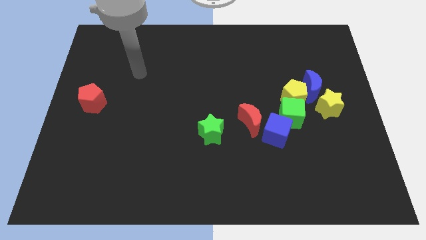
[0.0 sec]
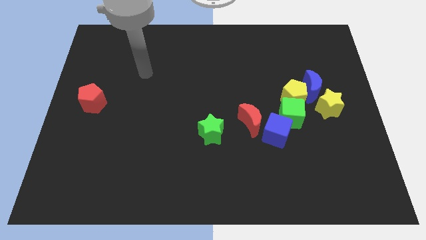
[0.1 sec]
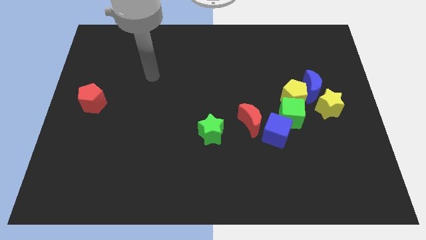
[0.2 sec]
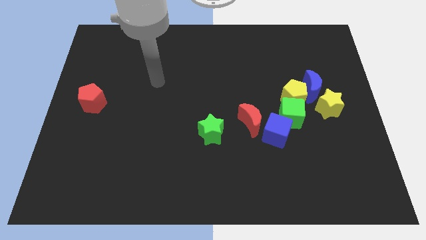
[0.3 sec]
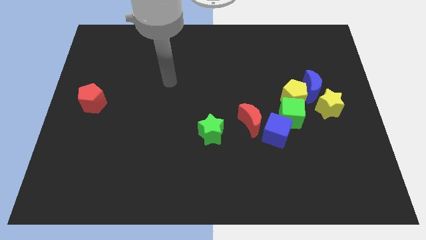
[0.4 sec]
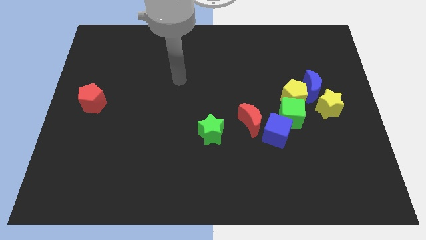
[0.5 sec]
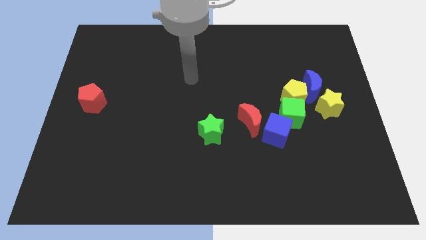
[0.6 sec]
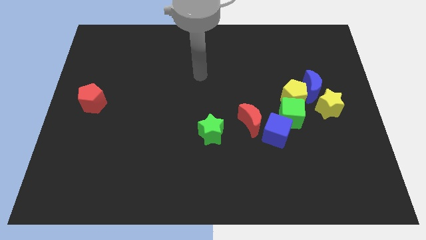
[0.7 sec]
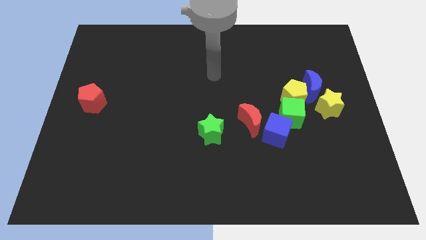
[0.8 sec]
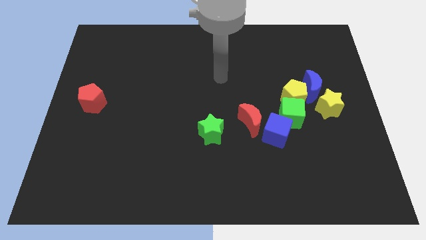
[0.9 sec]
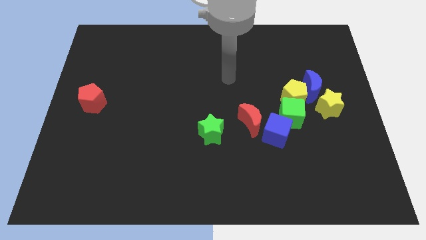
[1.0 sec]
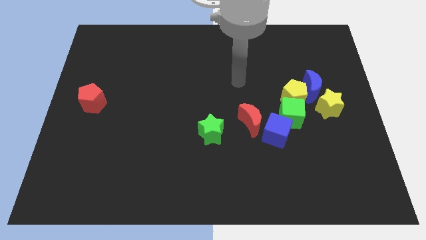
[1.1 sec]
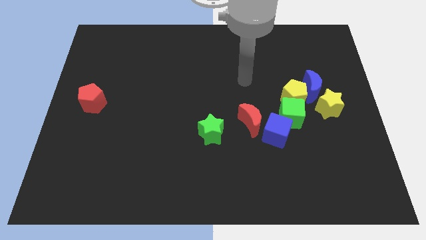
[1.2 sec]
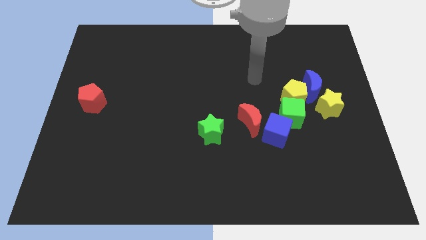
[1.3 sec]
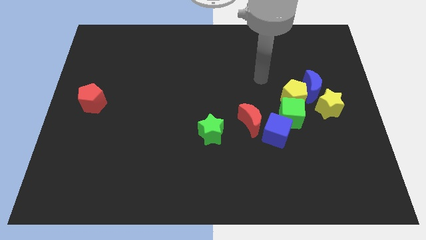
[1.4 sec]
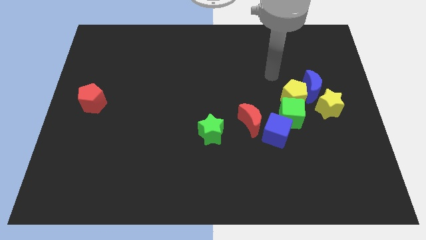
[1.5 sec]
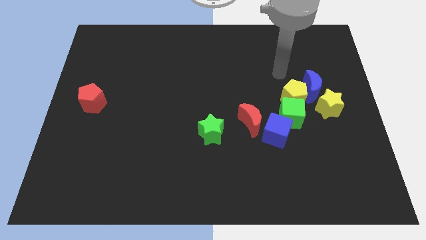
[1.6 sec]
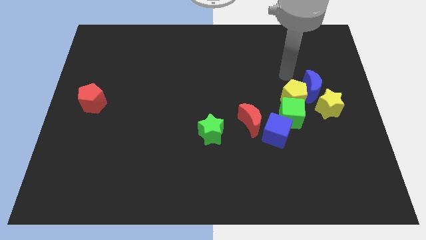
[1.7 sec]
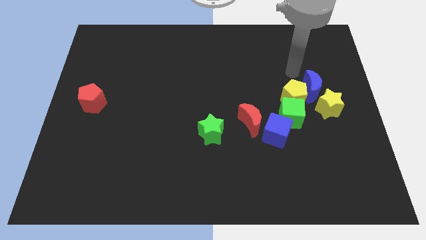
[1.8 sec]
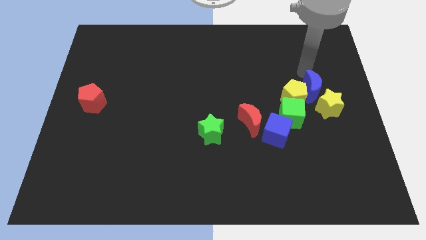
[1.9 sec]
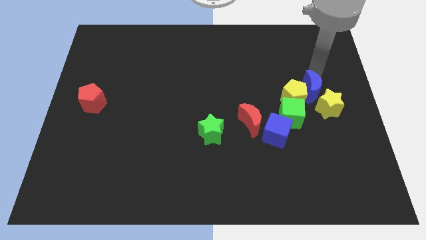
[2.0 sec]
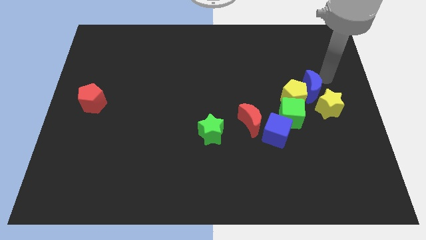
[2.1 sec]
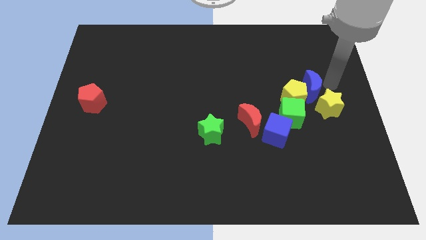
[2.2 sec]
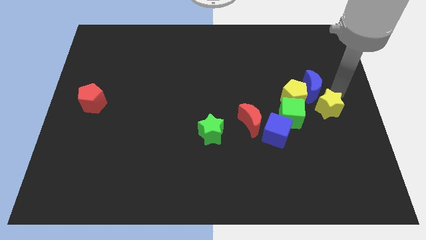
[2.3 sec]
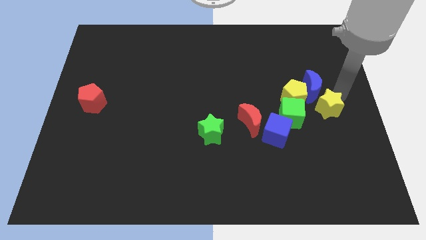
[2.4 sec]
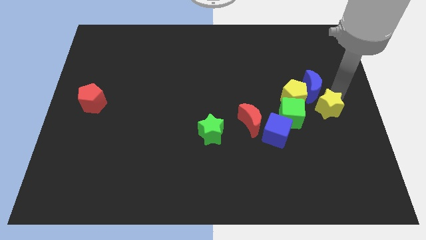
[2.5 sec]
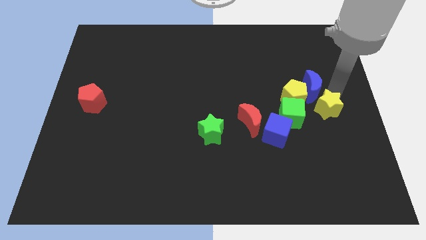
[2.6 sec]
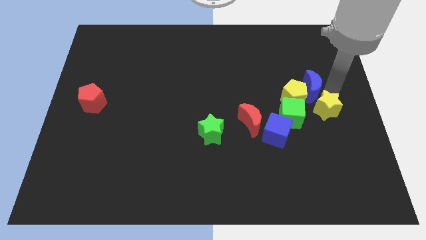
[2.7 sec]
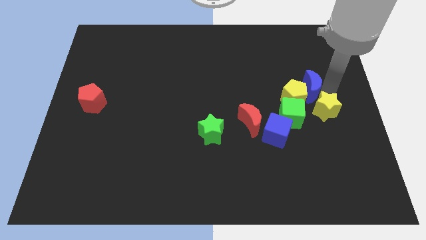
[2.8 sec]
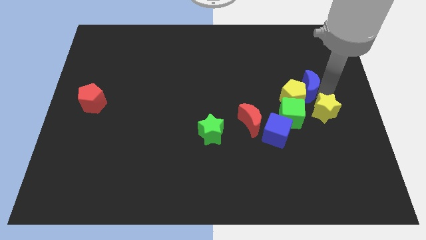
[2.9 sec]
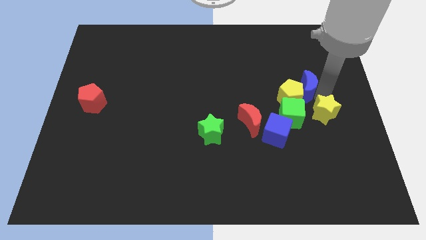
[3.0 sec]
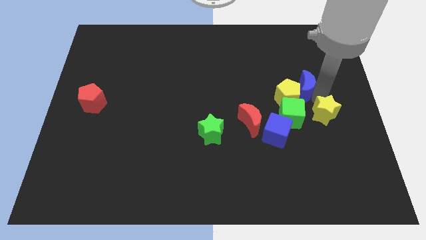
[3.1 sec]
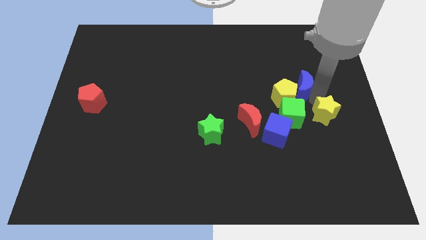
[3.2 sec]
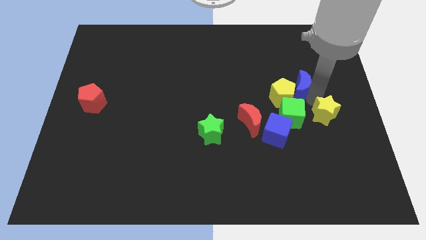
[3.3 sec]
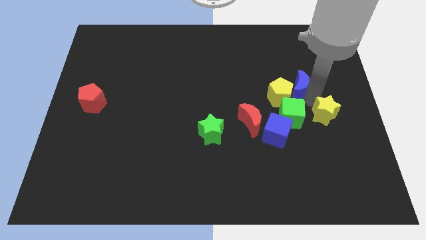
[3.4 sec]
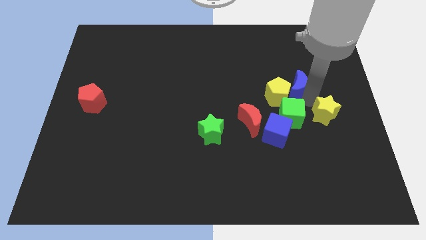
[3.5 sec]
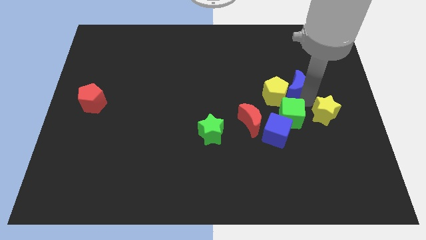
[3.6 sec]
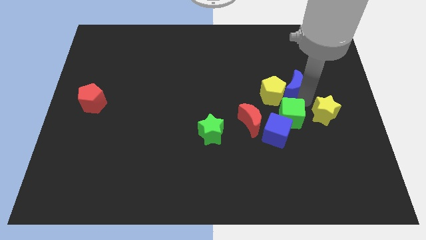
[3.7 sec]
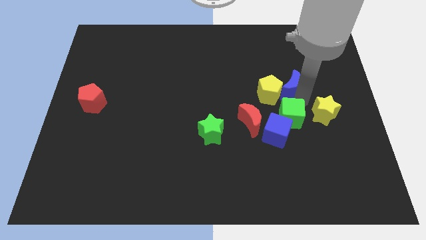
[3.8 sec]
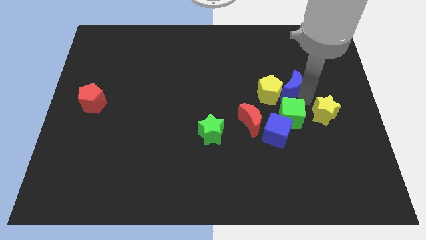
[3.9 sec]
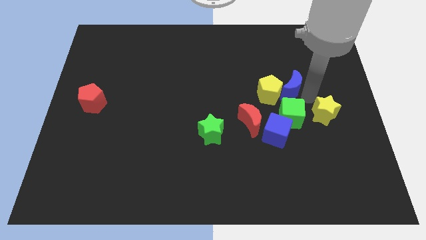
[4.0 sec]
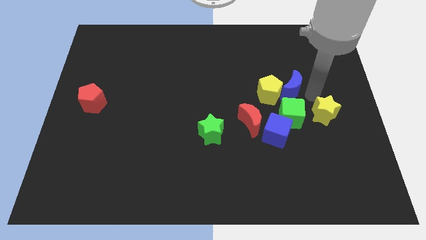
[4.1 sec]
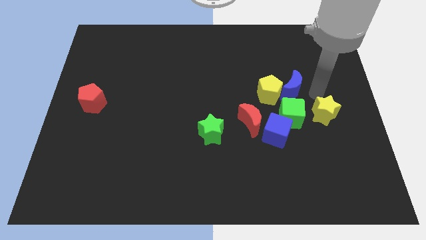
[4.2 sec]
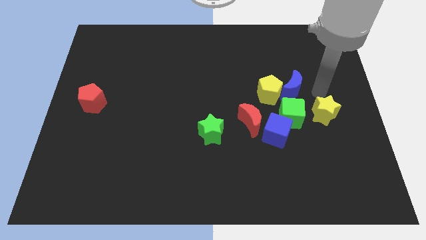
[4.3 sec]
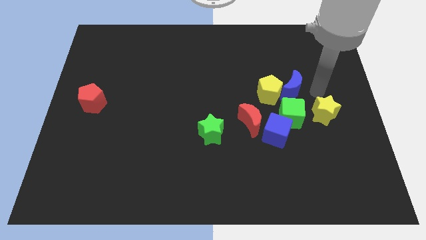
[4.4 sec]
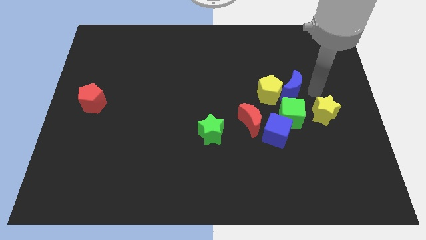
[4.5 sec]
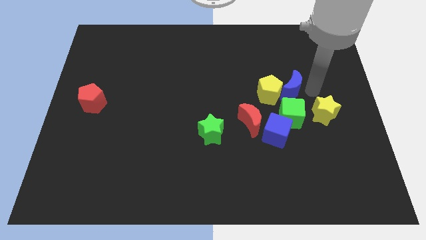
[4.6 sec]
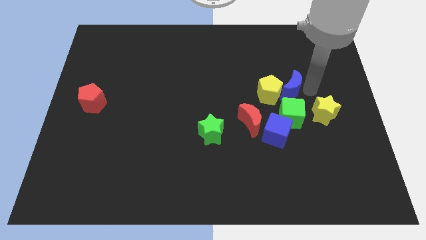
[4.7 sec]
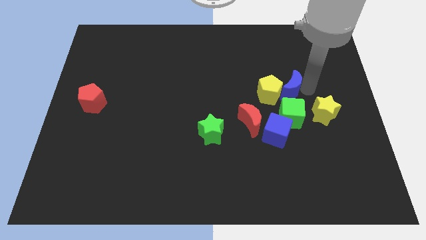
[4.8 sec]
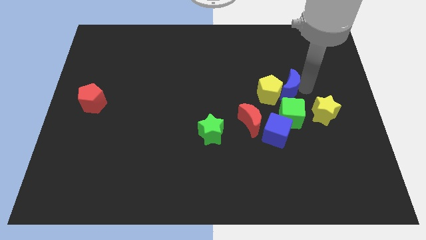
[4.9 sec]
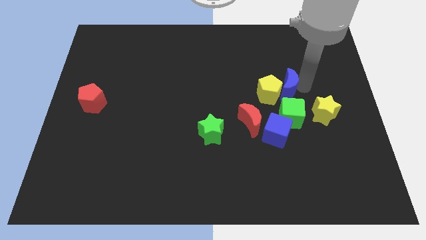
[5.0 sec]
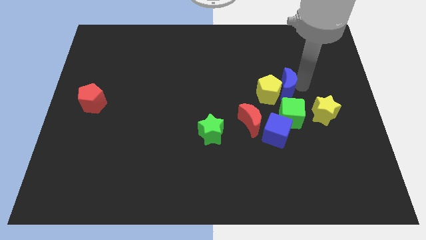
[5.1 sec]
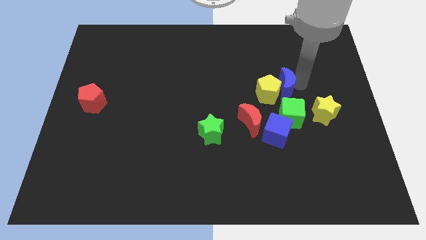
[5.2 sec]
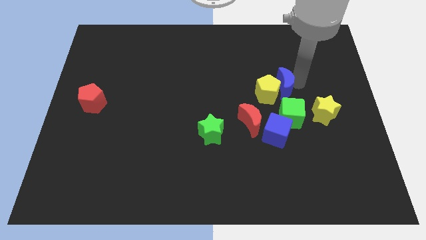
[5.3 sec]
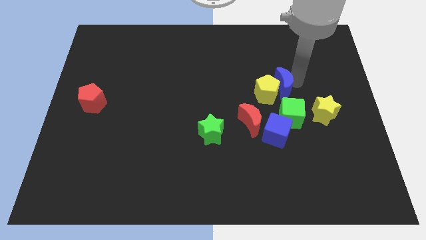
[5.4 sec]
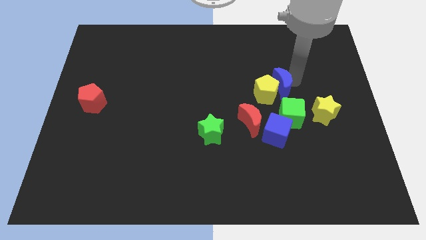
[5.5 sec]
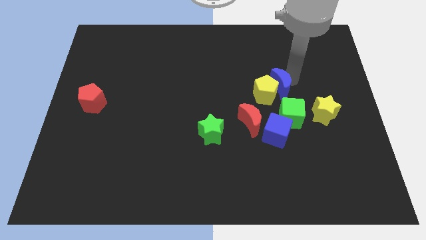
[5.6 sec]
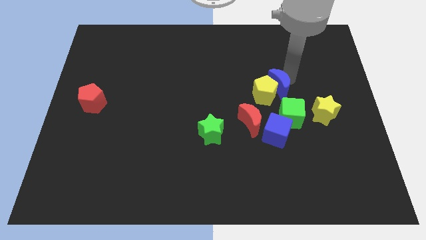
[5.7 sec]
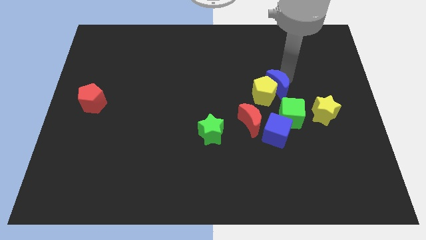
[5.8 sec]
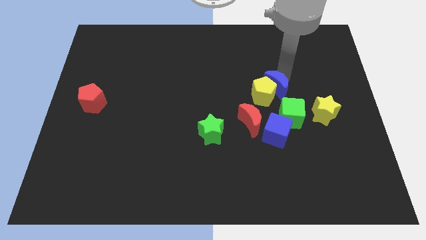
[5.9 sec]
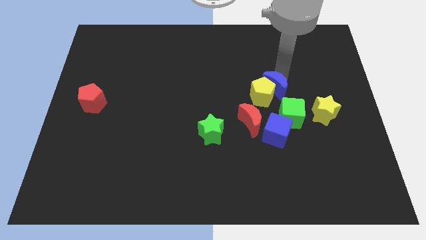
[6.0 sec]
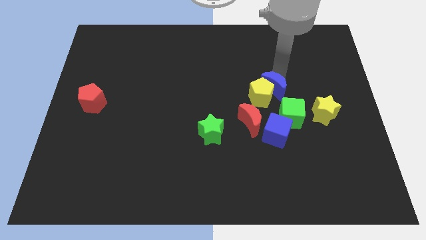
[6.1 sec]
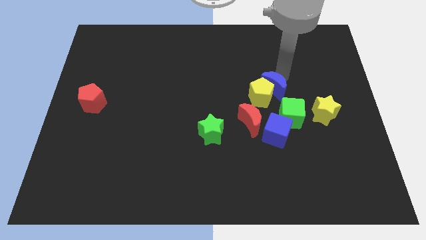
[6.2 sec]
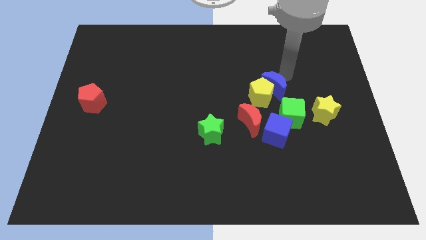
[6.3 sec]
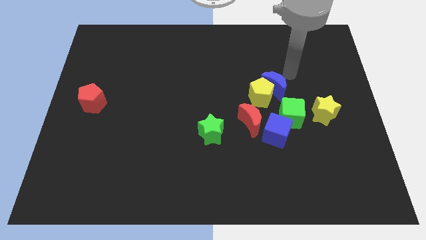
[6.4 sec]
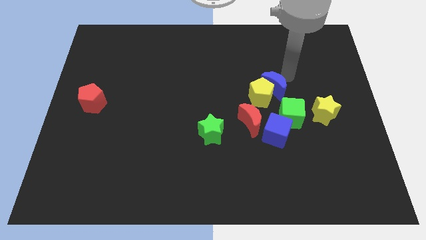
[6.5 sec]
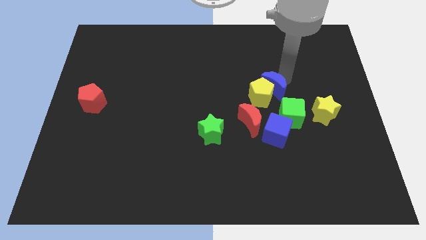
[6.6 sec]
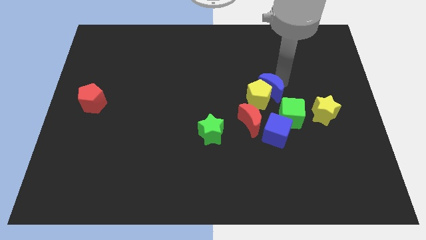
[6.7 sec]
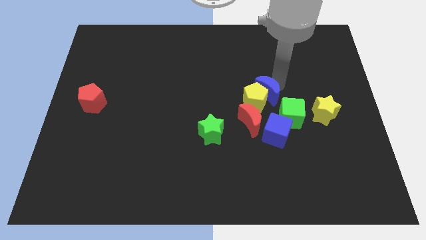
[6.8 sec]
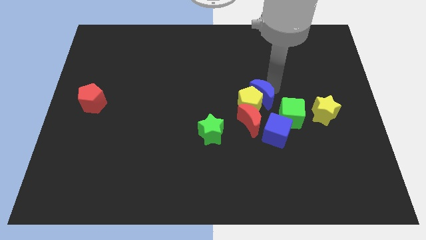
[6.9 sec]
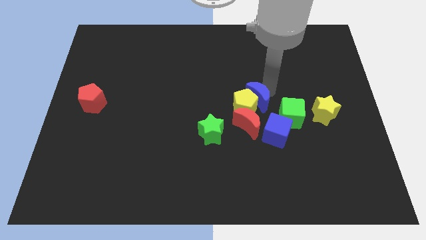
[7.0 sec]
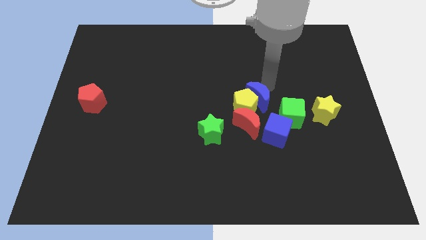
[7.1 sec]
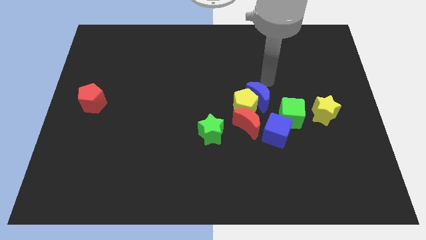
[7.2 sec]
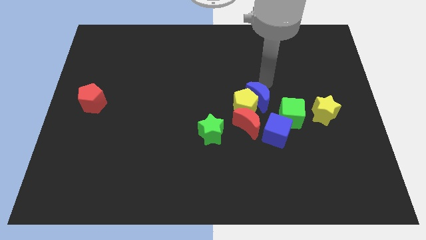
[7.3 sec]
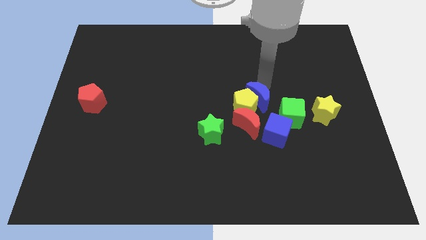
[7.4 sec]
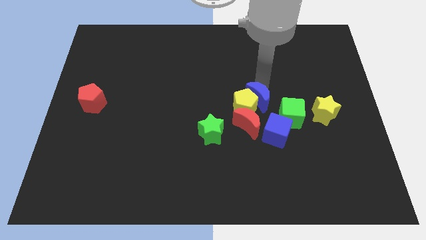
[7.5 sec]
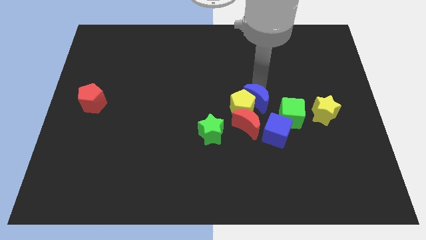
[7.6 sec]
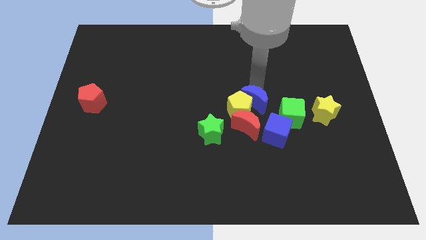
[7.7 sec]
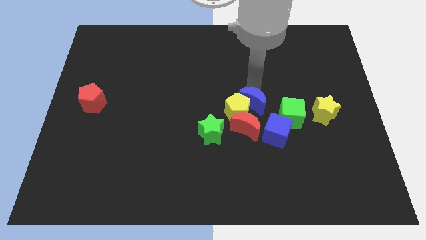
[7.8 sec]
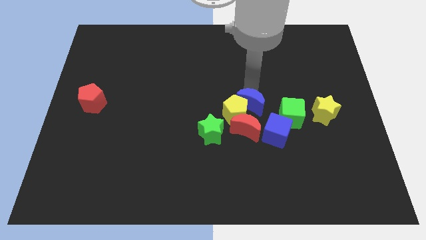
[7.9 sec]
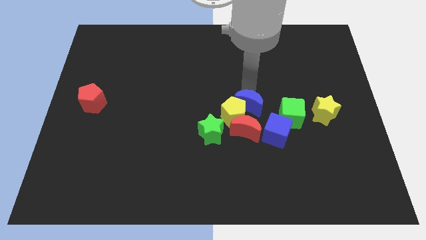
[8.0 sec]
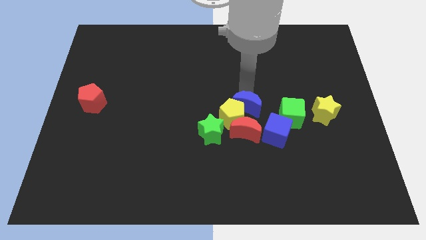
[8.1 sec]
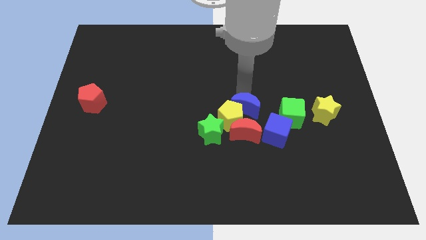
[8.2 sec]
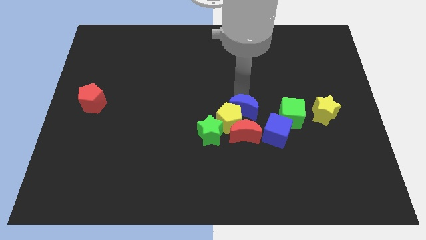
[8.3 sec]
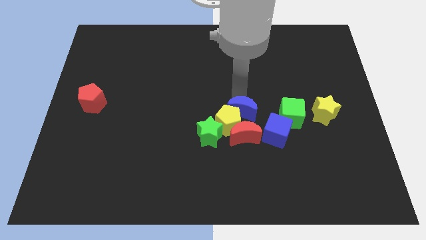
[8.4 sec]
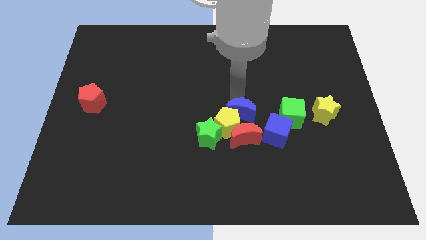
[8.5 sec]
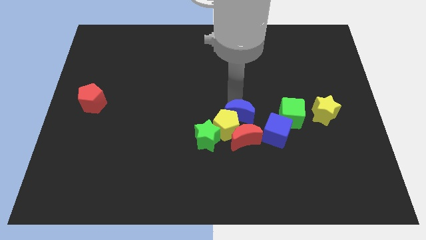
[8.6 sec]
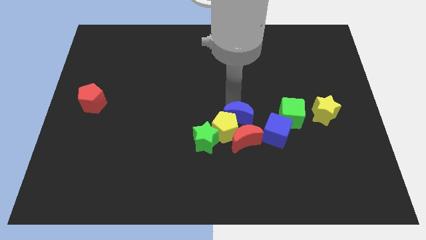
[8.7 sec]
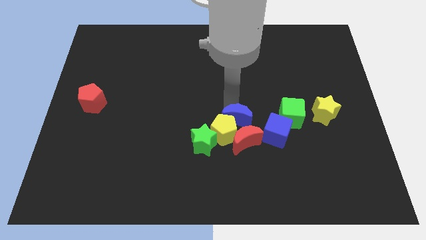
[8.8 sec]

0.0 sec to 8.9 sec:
slide the blue moon close to the red moon
